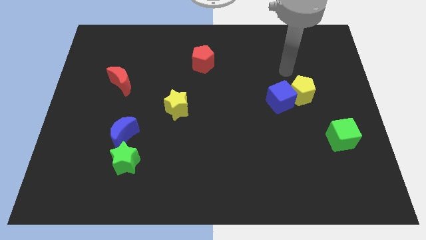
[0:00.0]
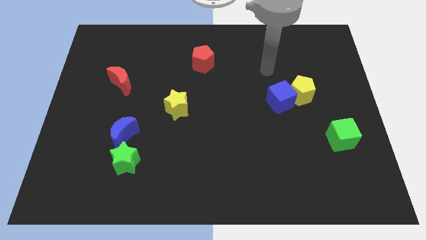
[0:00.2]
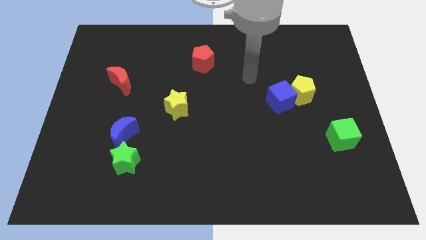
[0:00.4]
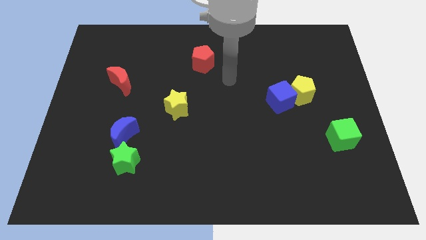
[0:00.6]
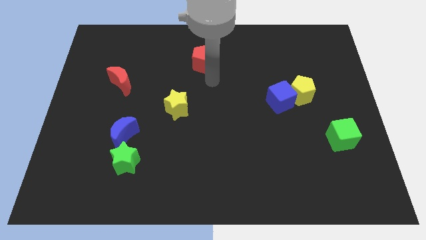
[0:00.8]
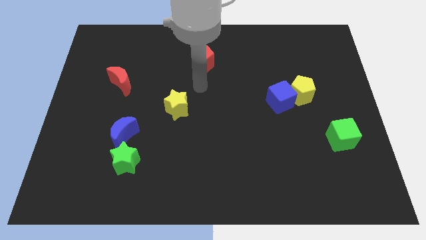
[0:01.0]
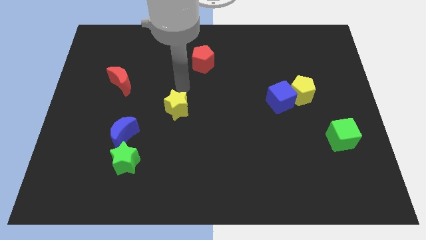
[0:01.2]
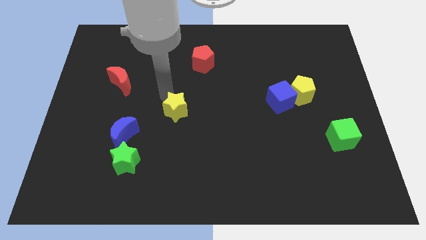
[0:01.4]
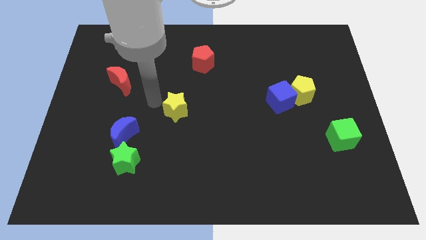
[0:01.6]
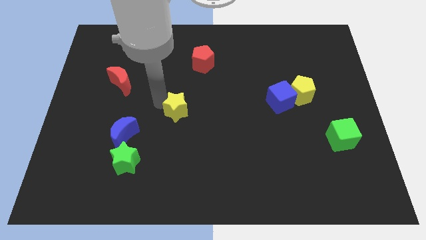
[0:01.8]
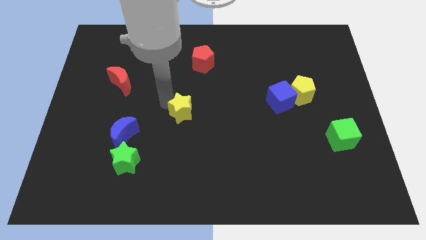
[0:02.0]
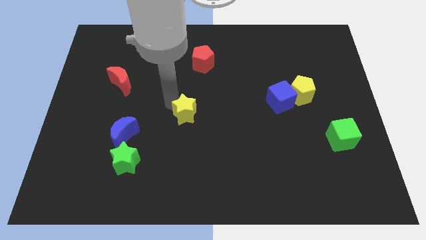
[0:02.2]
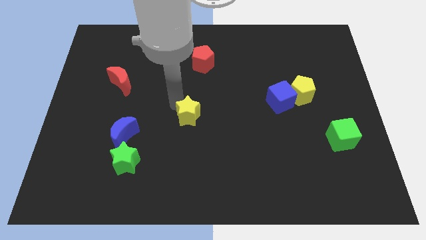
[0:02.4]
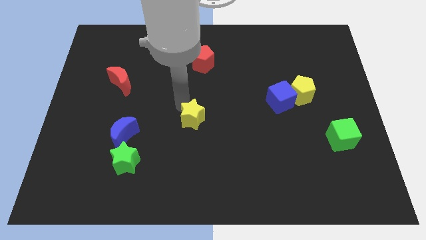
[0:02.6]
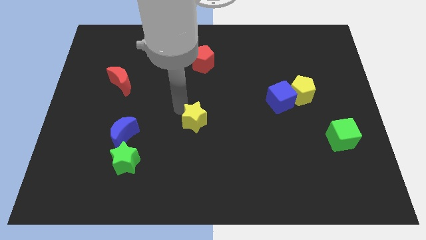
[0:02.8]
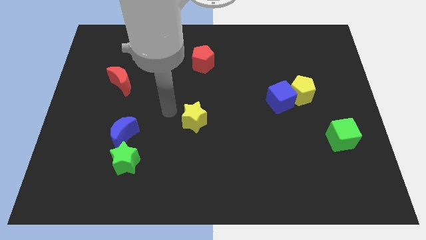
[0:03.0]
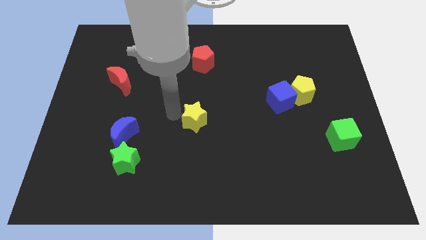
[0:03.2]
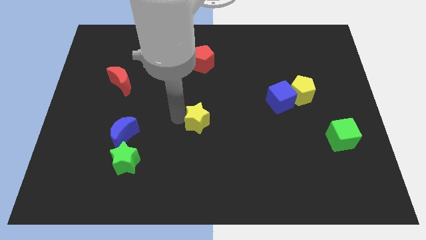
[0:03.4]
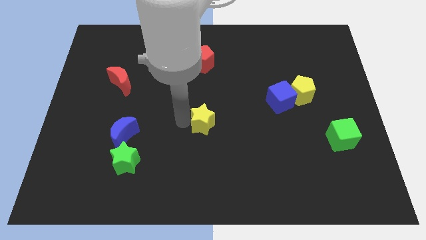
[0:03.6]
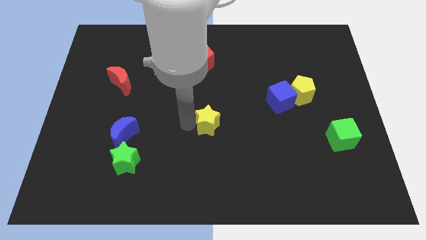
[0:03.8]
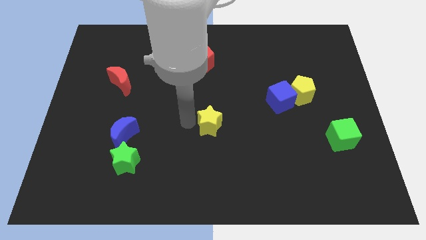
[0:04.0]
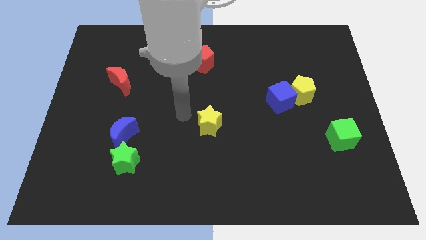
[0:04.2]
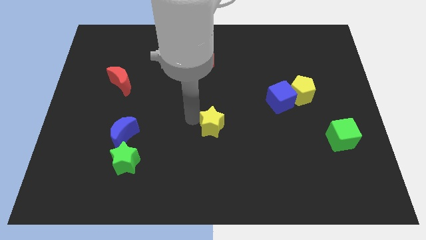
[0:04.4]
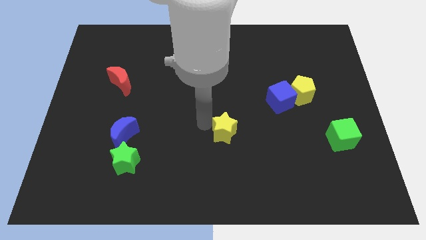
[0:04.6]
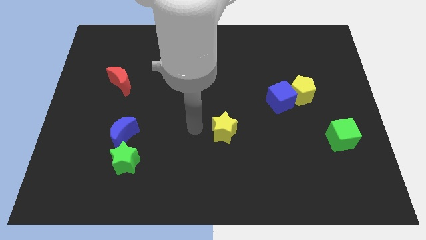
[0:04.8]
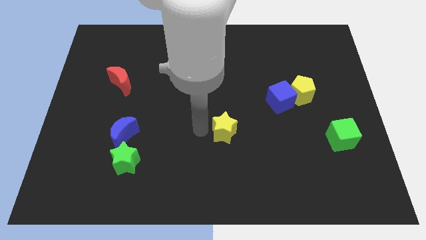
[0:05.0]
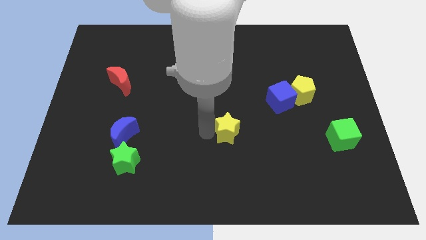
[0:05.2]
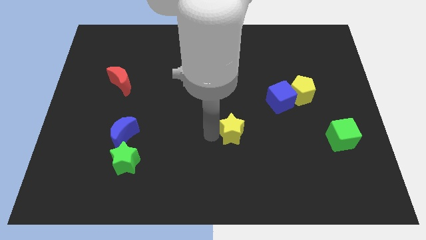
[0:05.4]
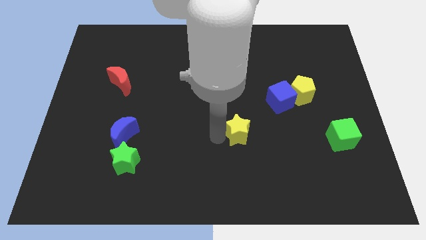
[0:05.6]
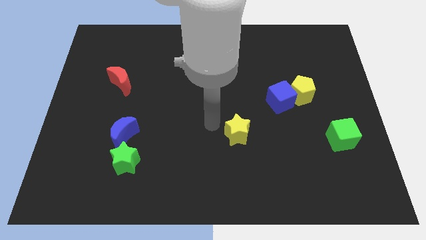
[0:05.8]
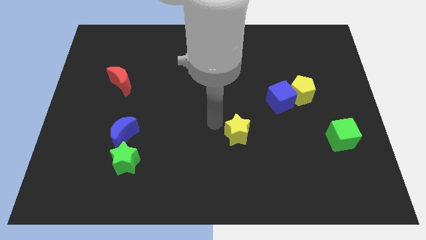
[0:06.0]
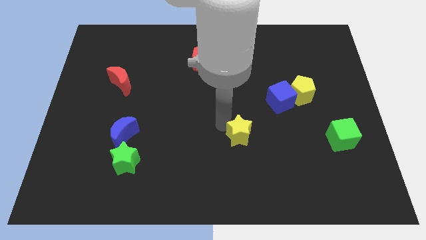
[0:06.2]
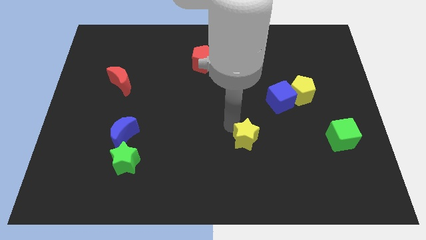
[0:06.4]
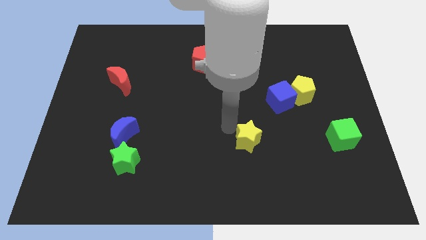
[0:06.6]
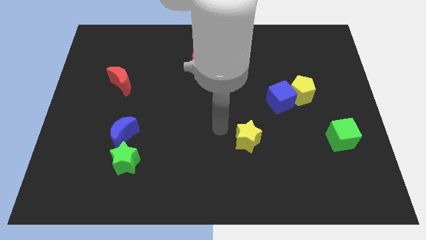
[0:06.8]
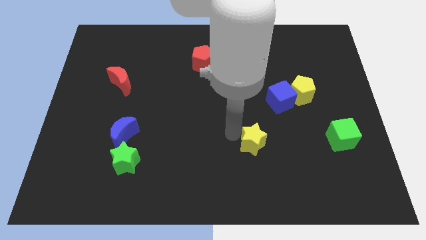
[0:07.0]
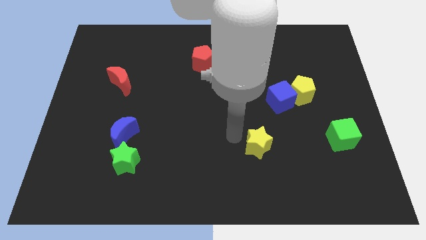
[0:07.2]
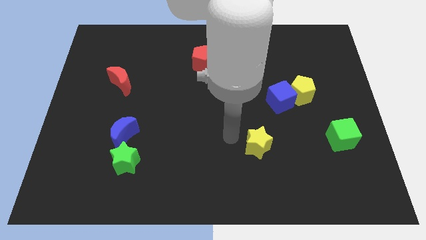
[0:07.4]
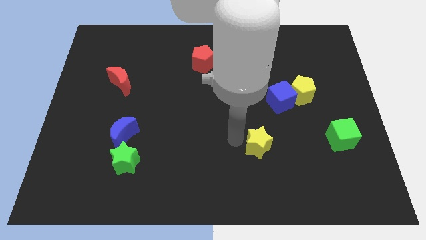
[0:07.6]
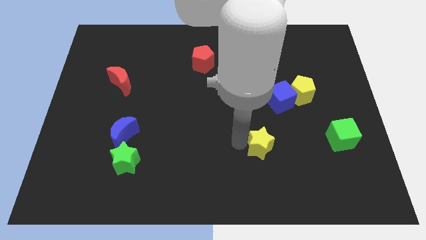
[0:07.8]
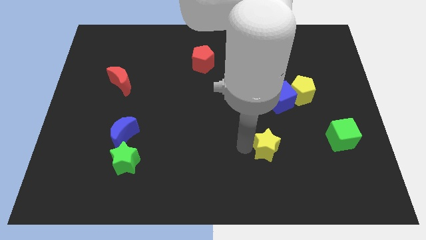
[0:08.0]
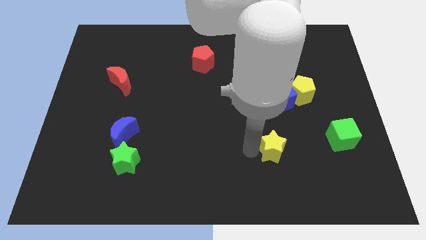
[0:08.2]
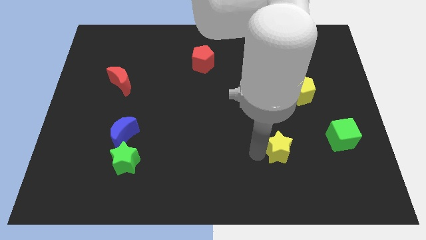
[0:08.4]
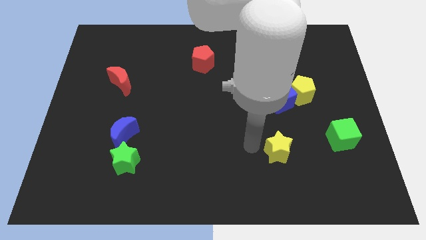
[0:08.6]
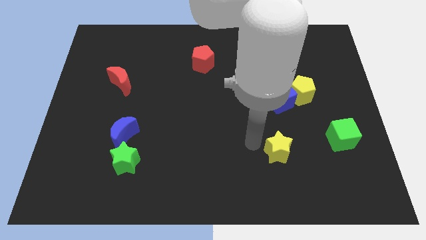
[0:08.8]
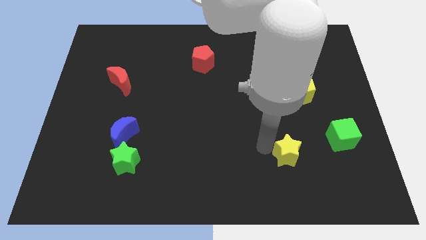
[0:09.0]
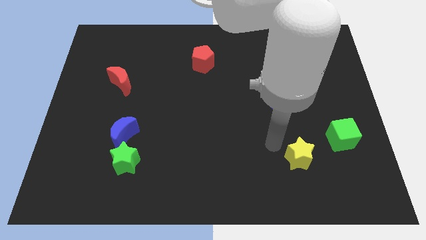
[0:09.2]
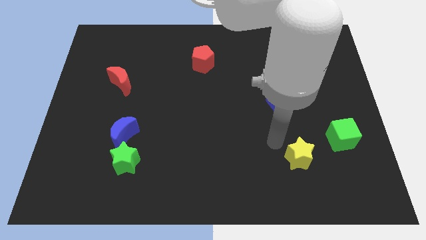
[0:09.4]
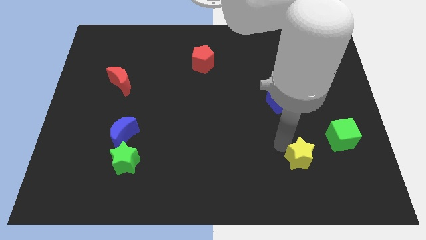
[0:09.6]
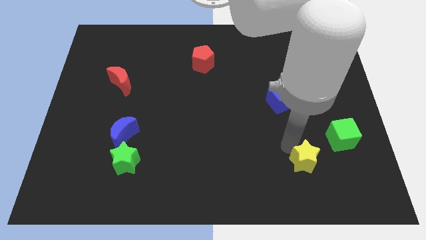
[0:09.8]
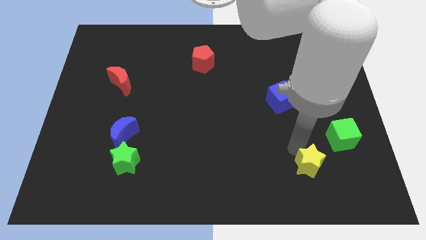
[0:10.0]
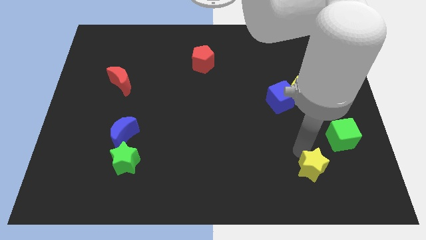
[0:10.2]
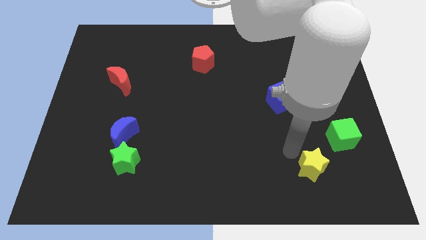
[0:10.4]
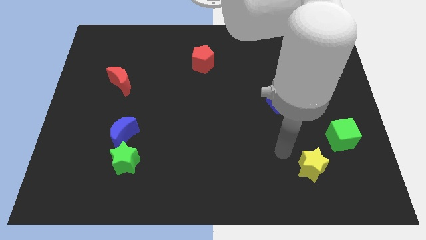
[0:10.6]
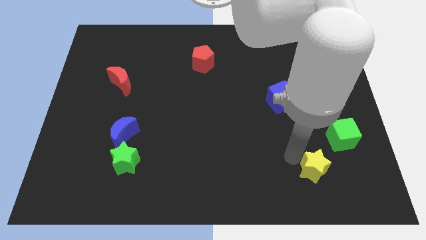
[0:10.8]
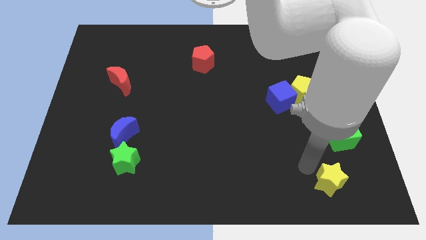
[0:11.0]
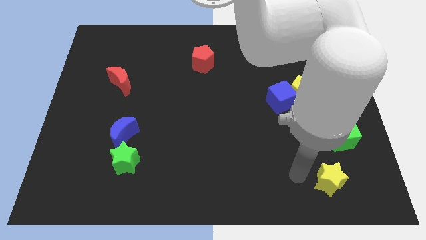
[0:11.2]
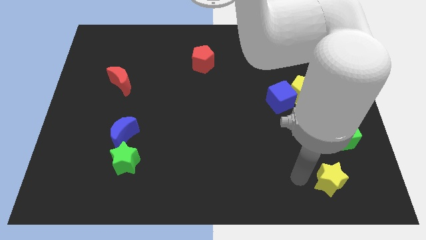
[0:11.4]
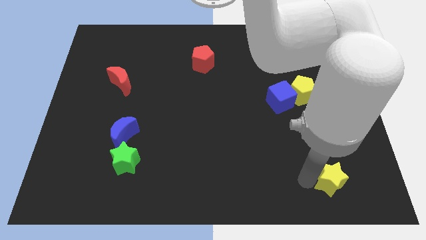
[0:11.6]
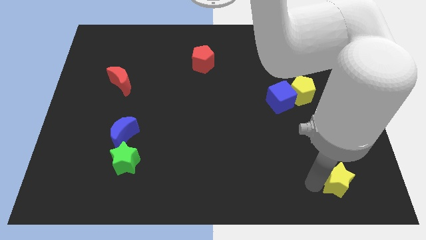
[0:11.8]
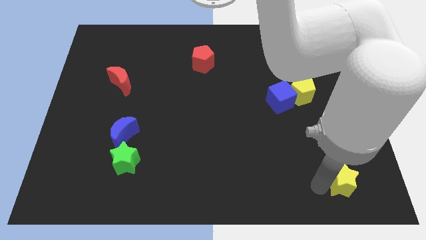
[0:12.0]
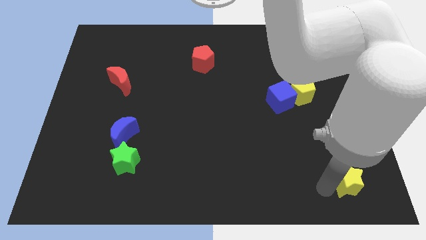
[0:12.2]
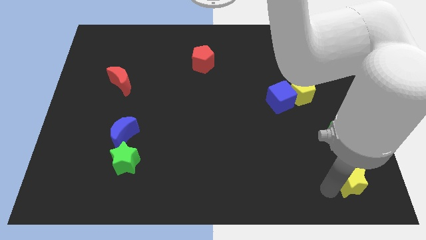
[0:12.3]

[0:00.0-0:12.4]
push the yellow star to the bottom right

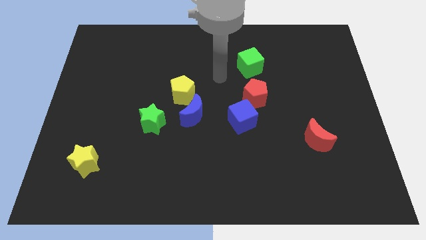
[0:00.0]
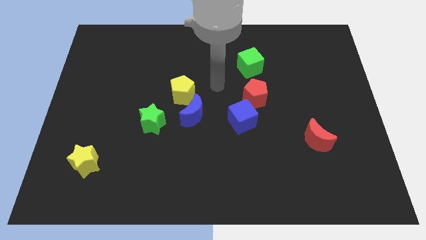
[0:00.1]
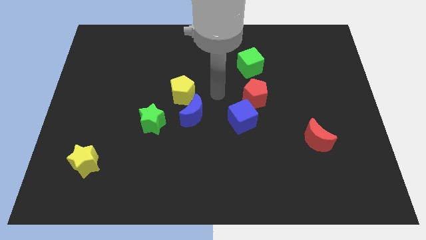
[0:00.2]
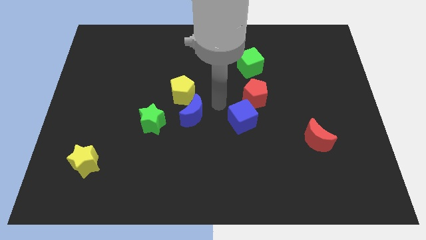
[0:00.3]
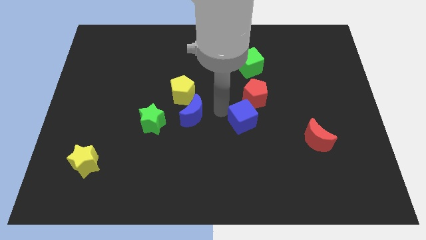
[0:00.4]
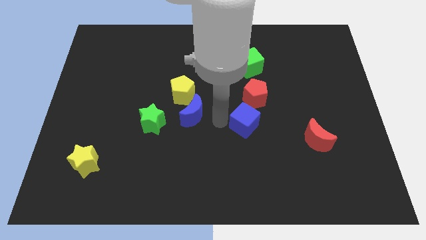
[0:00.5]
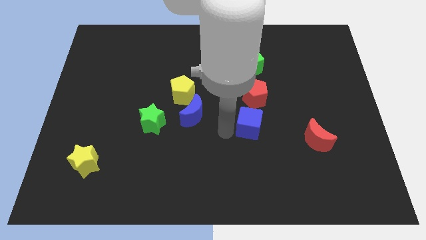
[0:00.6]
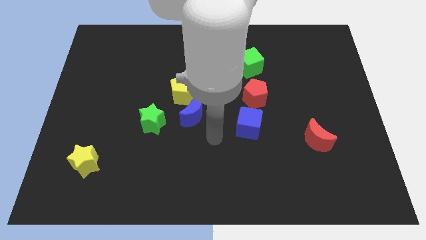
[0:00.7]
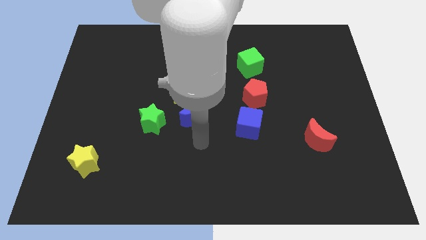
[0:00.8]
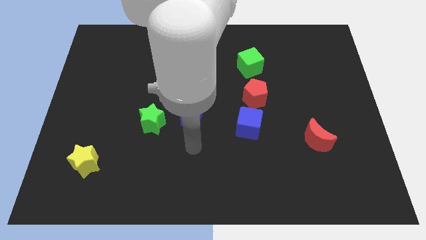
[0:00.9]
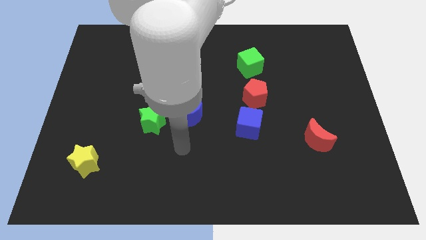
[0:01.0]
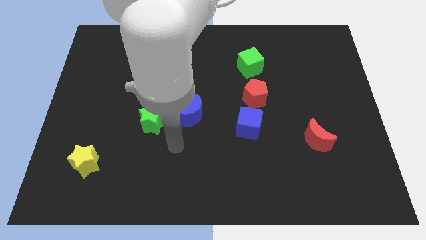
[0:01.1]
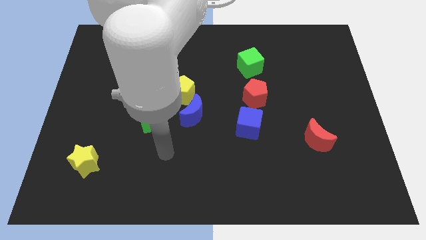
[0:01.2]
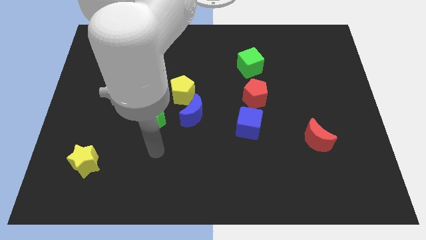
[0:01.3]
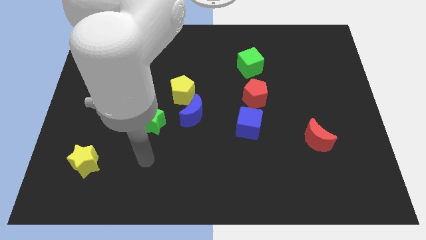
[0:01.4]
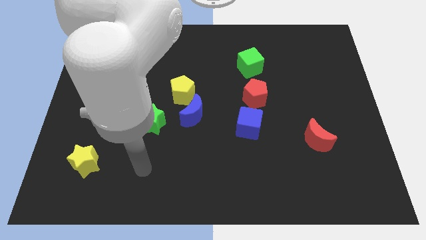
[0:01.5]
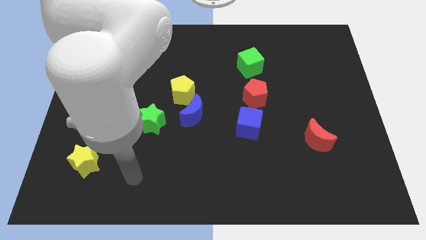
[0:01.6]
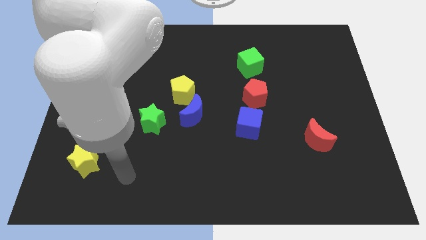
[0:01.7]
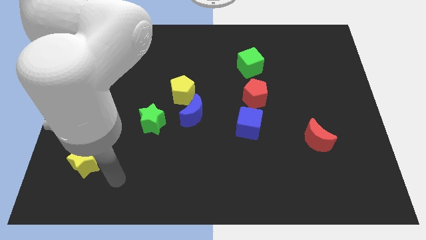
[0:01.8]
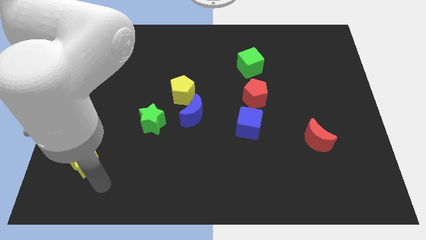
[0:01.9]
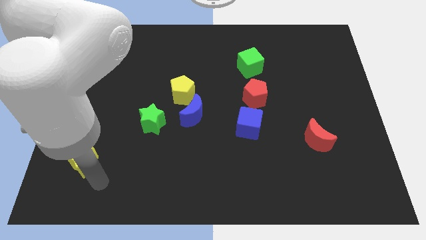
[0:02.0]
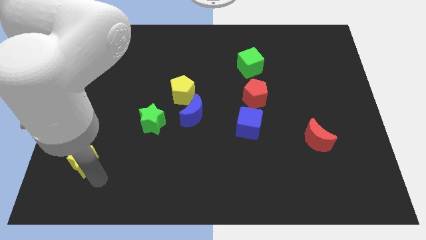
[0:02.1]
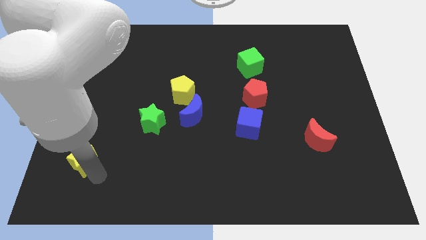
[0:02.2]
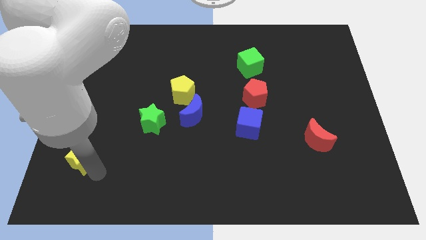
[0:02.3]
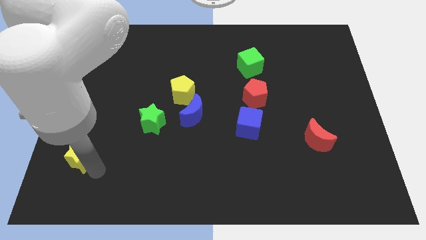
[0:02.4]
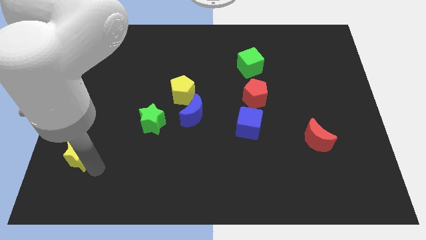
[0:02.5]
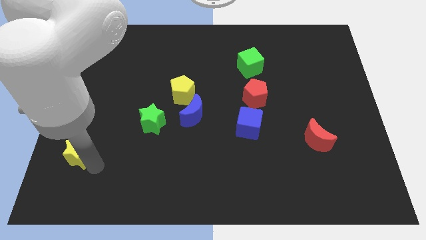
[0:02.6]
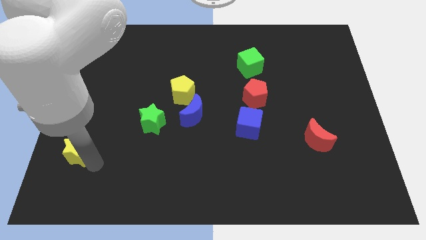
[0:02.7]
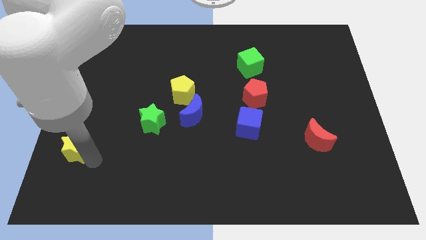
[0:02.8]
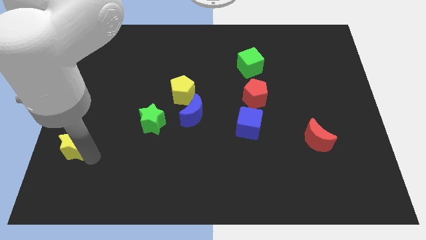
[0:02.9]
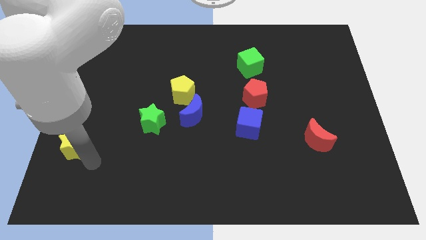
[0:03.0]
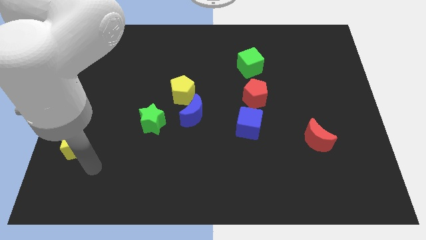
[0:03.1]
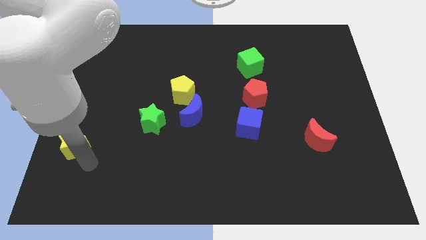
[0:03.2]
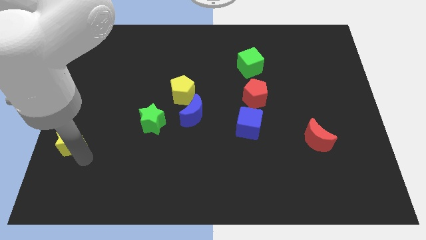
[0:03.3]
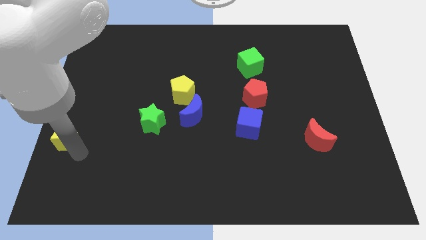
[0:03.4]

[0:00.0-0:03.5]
slide the yellow star to the left side of the board
